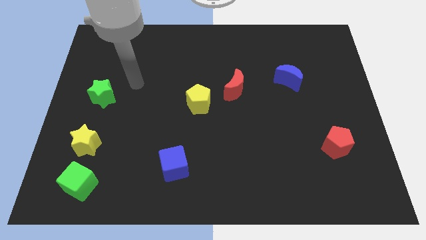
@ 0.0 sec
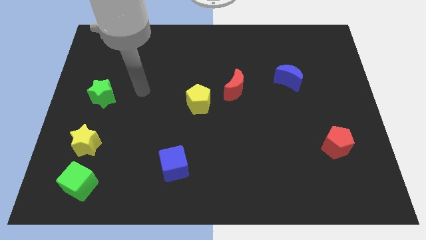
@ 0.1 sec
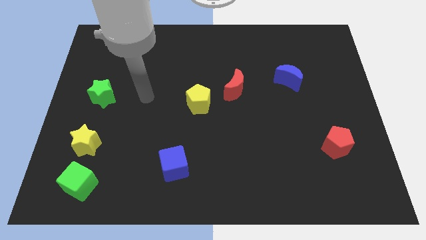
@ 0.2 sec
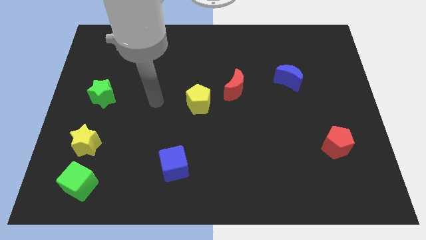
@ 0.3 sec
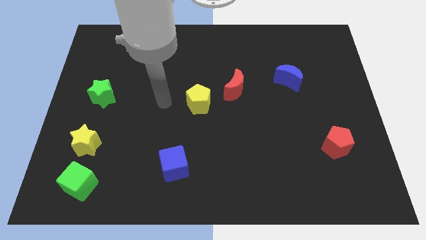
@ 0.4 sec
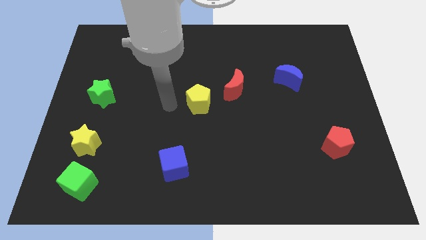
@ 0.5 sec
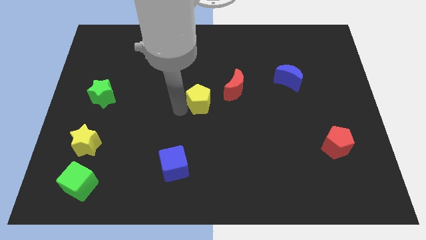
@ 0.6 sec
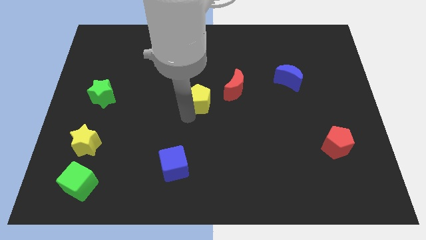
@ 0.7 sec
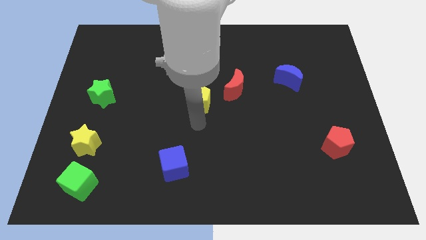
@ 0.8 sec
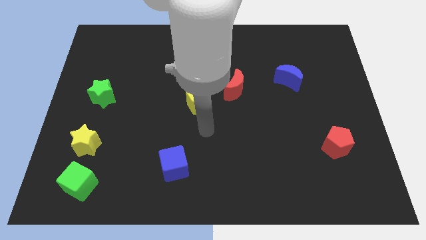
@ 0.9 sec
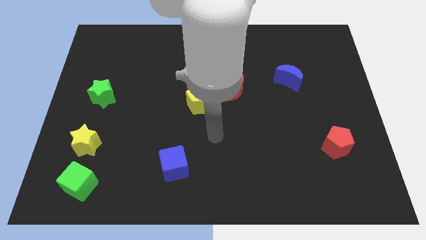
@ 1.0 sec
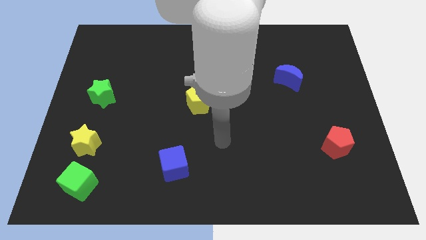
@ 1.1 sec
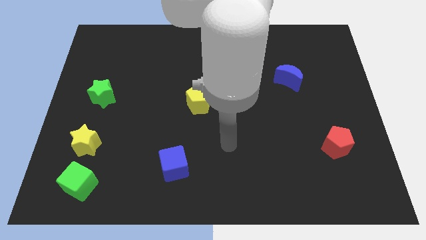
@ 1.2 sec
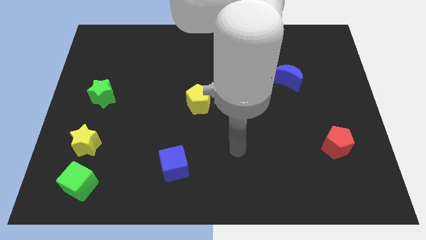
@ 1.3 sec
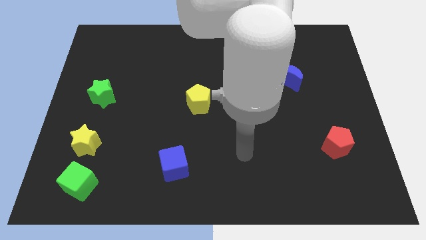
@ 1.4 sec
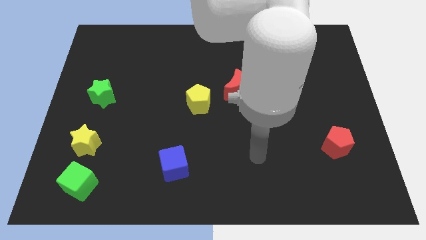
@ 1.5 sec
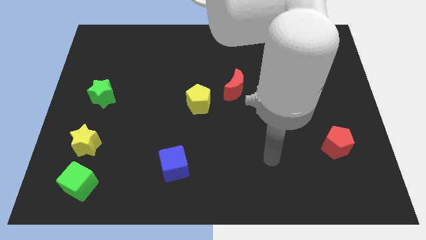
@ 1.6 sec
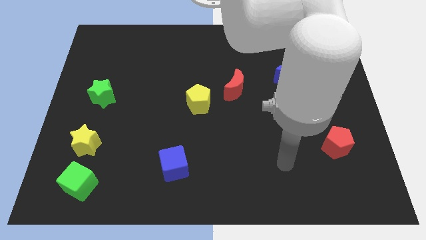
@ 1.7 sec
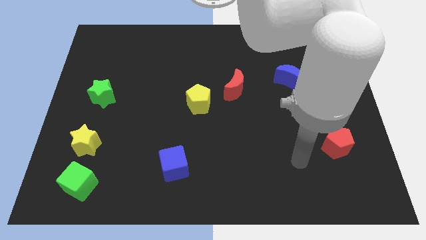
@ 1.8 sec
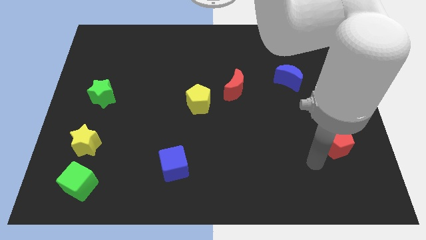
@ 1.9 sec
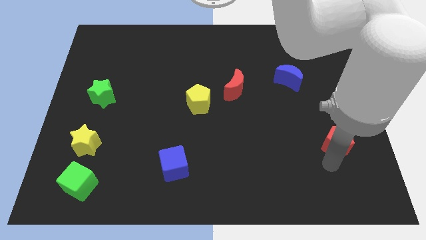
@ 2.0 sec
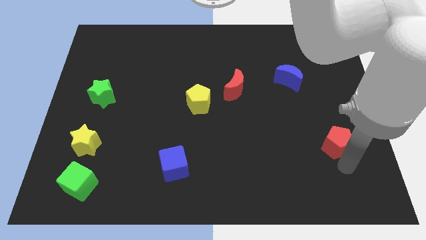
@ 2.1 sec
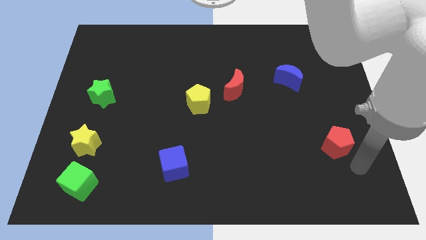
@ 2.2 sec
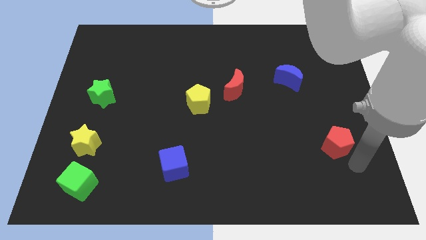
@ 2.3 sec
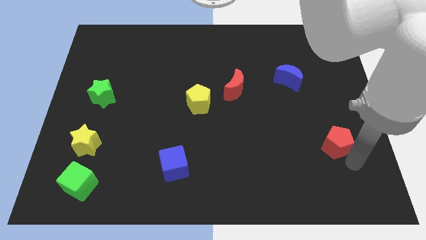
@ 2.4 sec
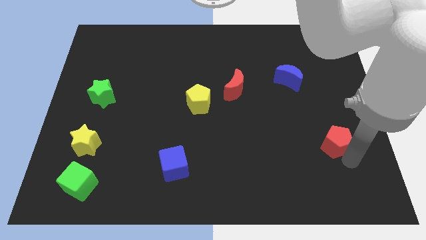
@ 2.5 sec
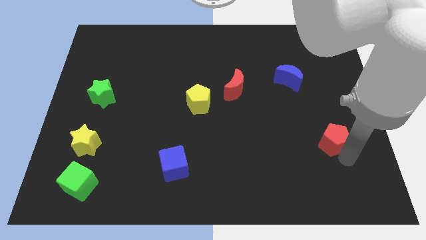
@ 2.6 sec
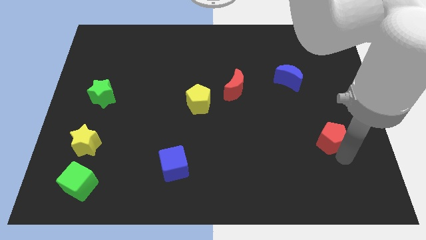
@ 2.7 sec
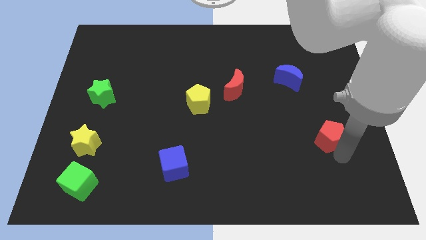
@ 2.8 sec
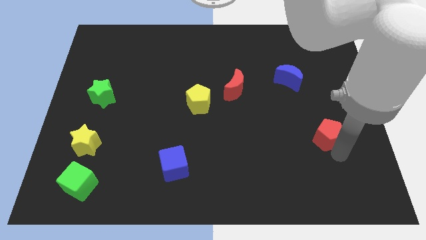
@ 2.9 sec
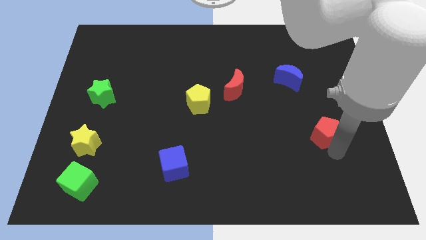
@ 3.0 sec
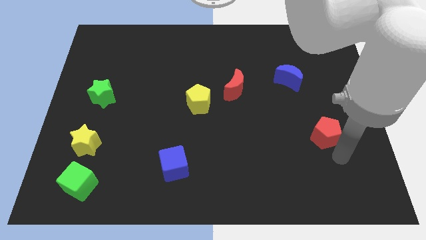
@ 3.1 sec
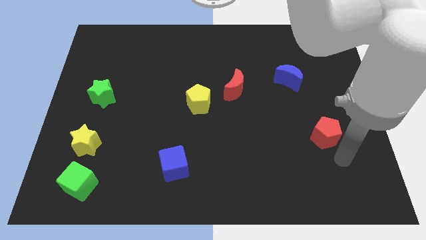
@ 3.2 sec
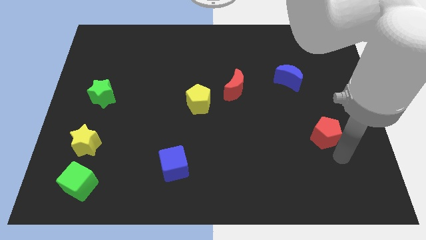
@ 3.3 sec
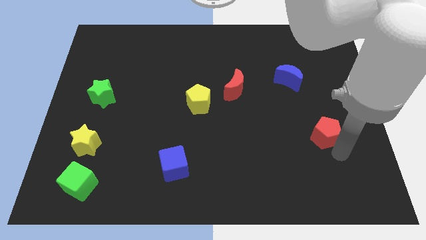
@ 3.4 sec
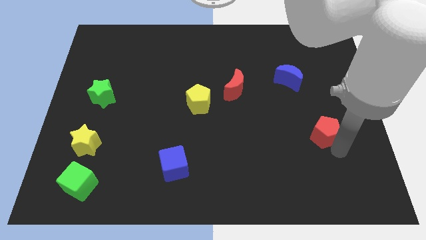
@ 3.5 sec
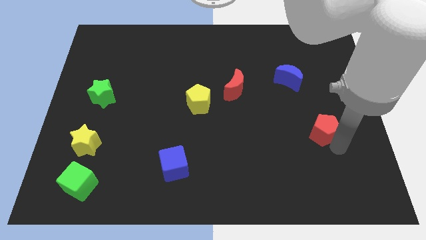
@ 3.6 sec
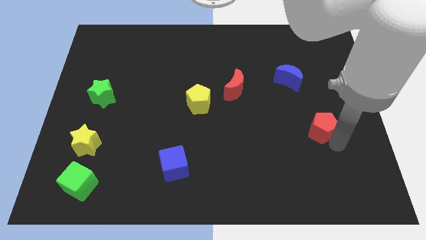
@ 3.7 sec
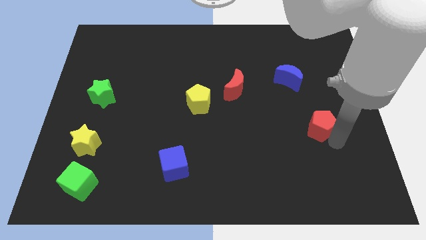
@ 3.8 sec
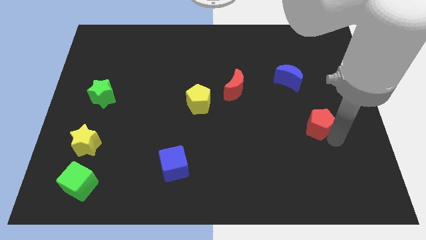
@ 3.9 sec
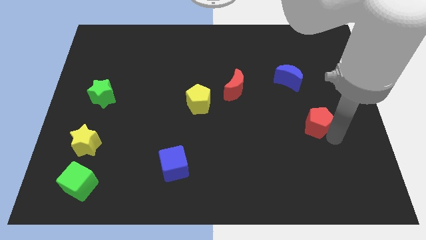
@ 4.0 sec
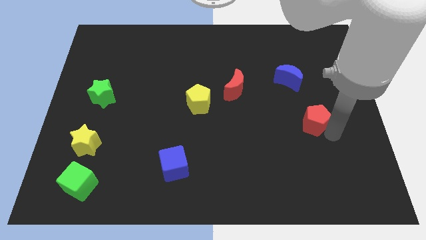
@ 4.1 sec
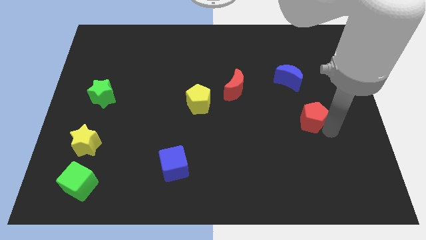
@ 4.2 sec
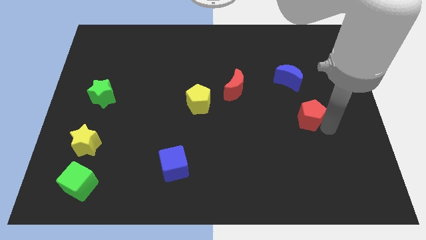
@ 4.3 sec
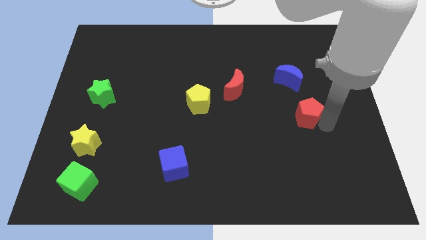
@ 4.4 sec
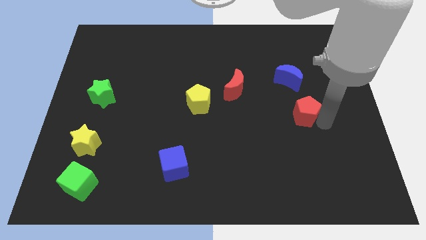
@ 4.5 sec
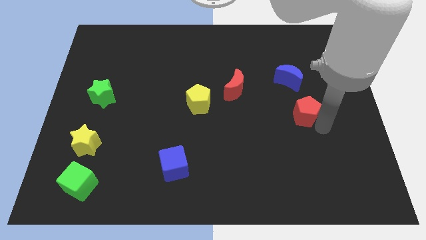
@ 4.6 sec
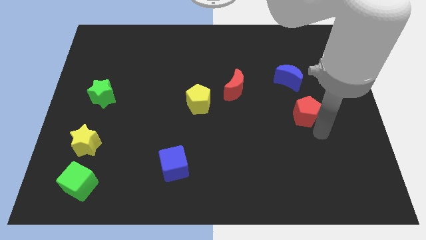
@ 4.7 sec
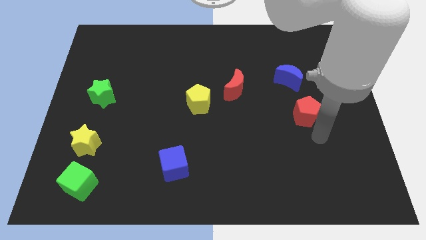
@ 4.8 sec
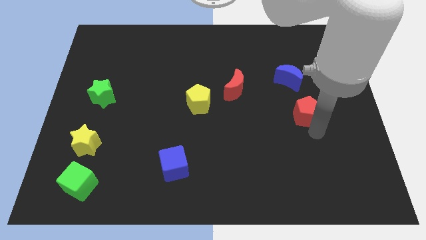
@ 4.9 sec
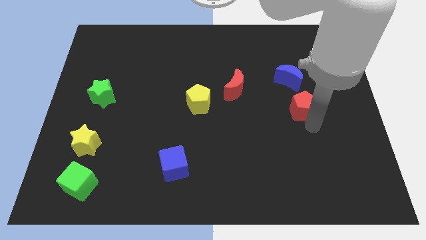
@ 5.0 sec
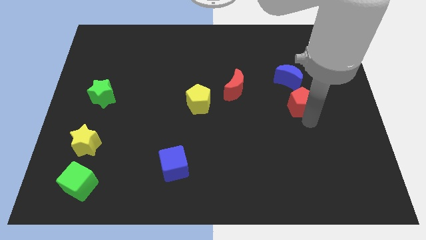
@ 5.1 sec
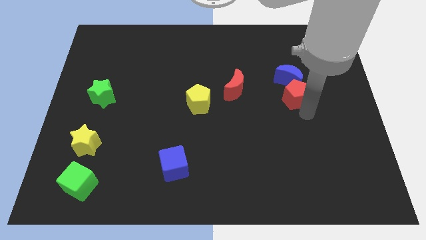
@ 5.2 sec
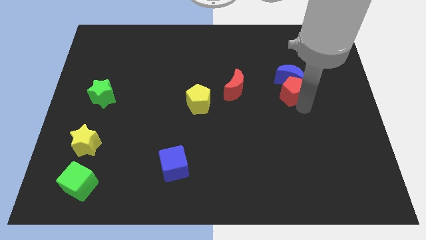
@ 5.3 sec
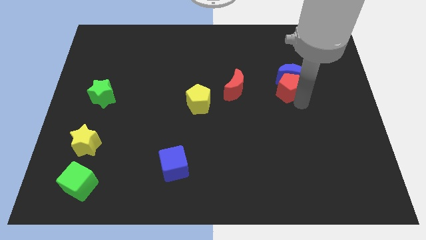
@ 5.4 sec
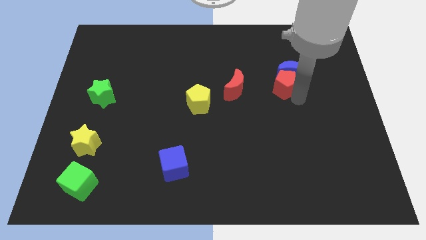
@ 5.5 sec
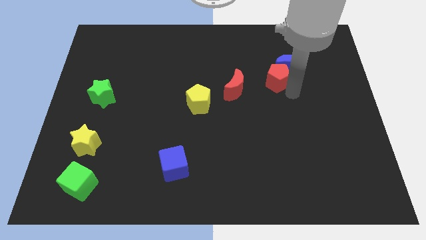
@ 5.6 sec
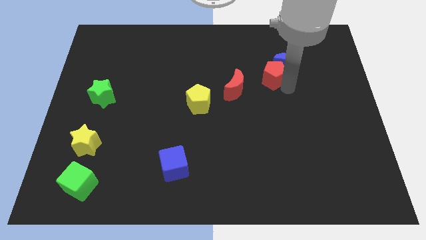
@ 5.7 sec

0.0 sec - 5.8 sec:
push the red pentagon to the top right side of the red moon

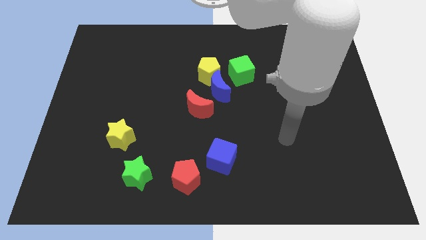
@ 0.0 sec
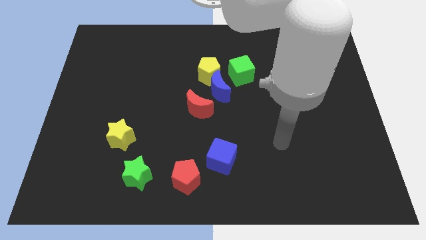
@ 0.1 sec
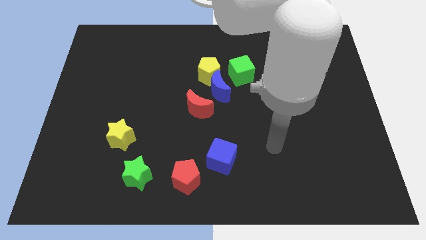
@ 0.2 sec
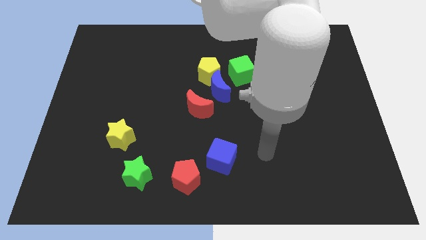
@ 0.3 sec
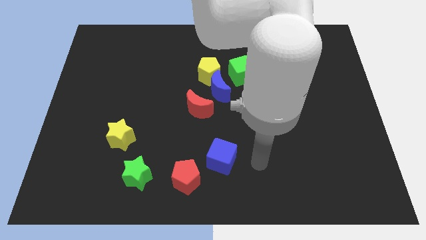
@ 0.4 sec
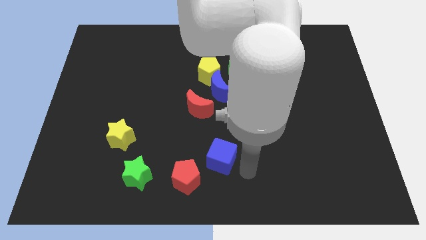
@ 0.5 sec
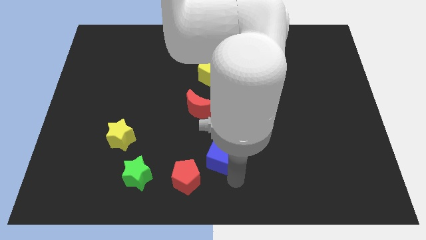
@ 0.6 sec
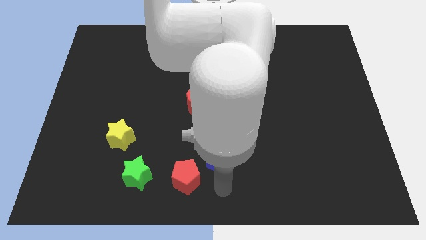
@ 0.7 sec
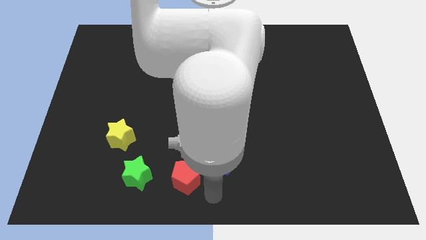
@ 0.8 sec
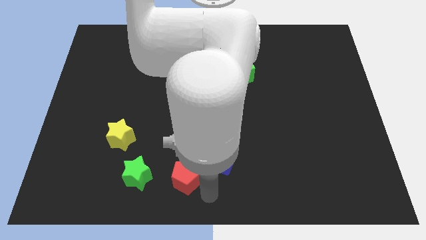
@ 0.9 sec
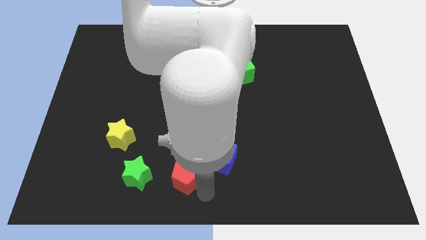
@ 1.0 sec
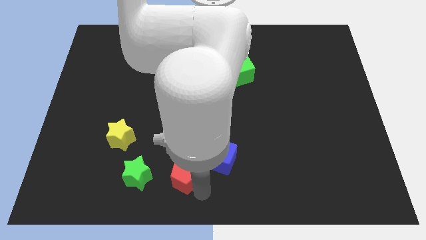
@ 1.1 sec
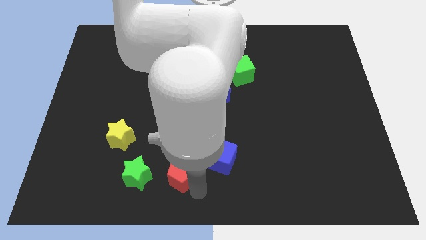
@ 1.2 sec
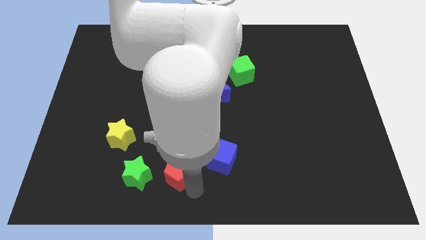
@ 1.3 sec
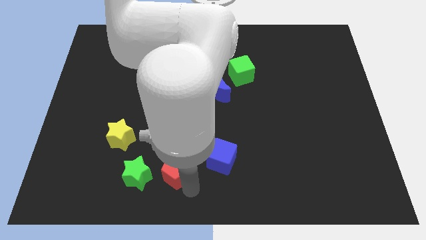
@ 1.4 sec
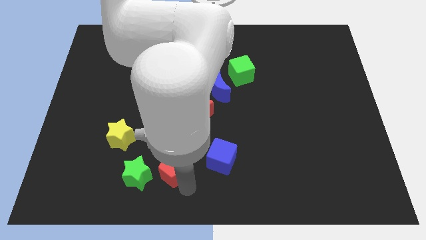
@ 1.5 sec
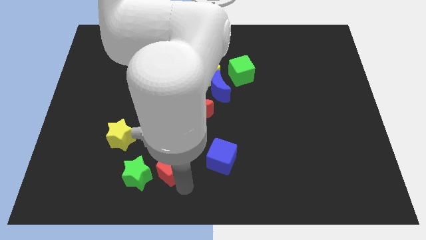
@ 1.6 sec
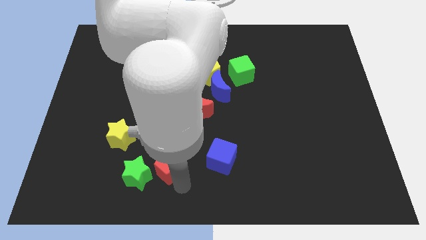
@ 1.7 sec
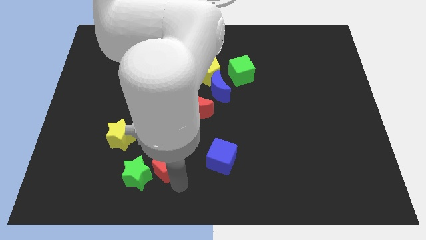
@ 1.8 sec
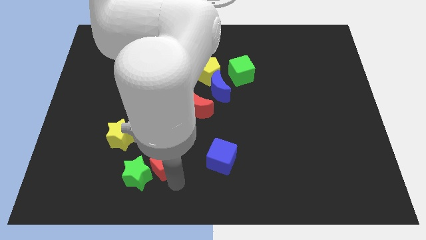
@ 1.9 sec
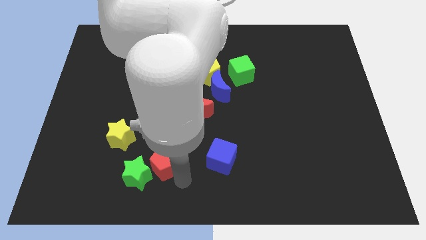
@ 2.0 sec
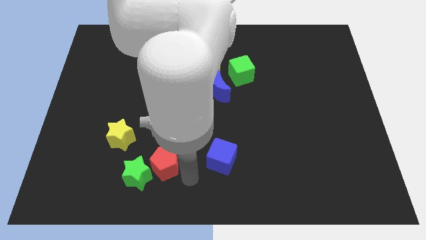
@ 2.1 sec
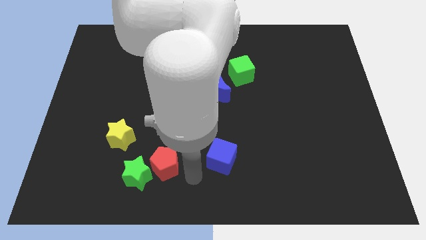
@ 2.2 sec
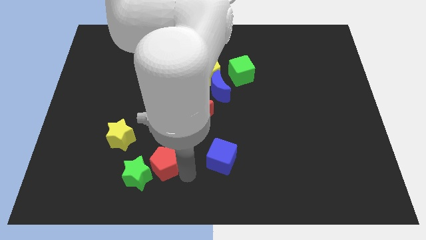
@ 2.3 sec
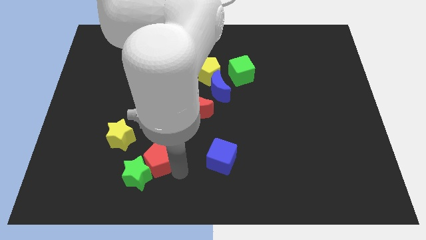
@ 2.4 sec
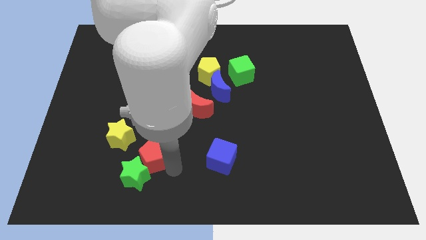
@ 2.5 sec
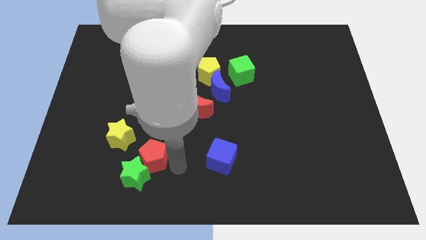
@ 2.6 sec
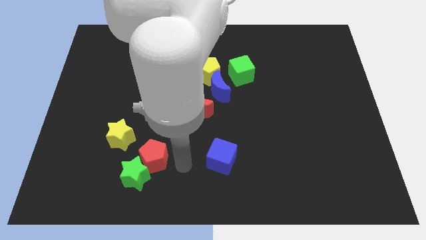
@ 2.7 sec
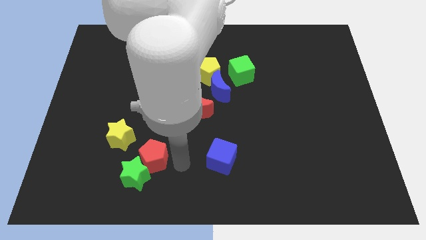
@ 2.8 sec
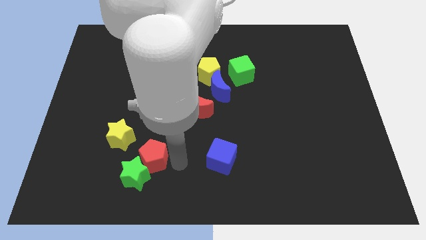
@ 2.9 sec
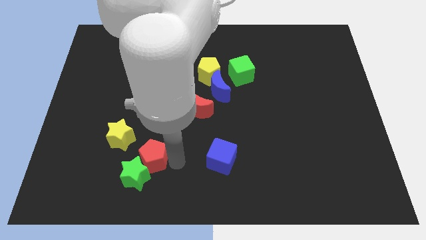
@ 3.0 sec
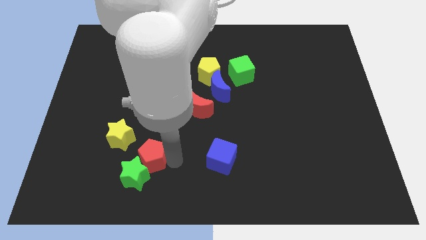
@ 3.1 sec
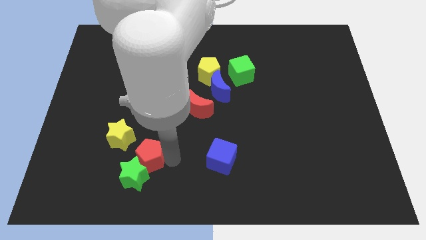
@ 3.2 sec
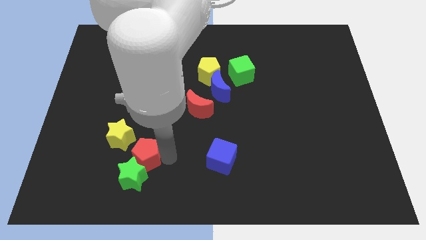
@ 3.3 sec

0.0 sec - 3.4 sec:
move the red pentagon to the top left side of the green star
